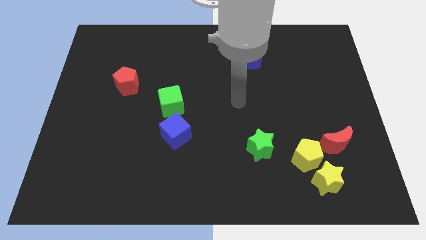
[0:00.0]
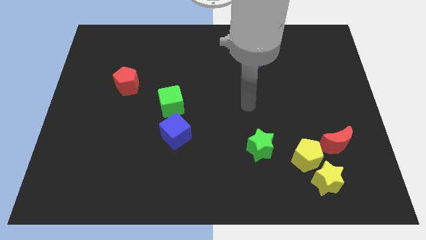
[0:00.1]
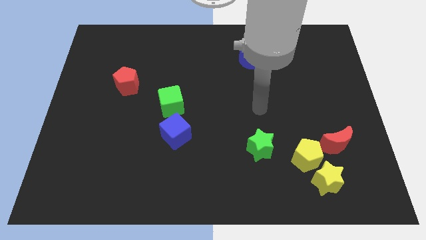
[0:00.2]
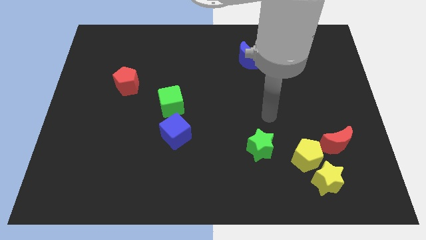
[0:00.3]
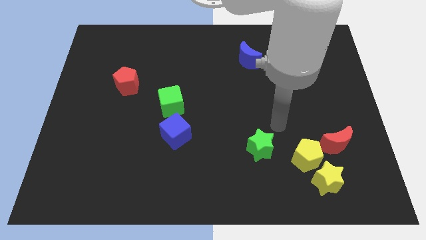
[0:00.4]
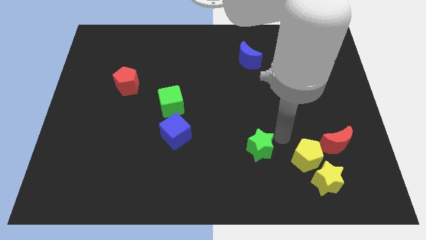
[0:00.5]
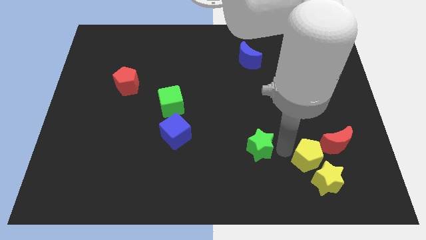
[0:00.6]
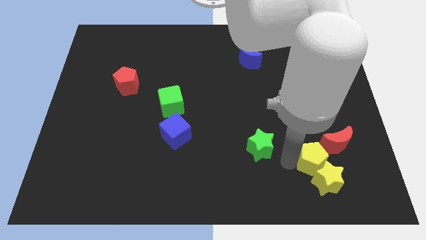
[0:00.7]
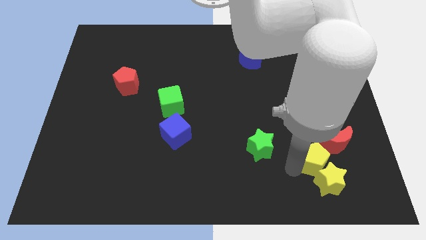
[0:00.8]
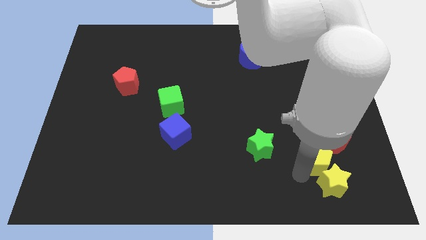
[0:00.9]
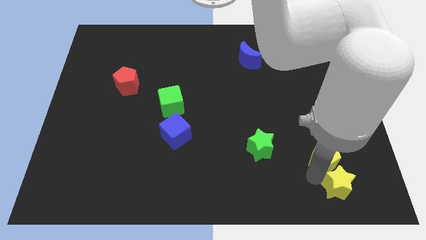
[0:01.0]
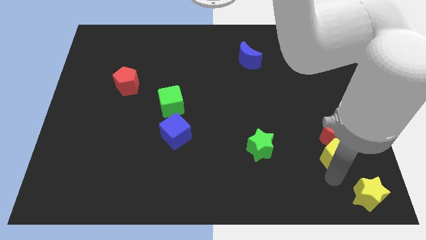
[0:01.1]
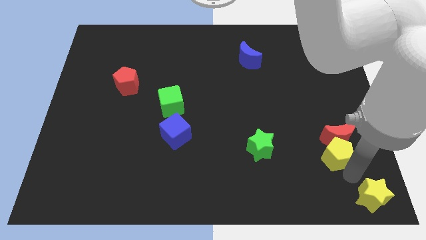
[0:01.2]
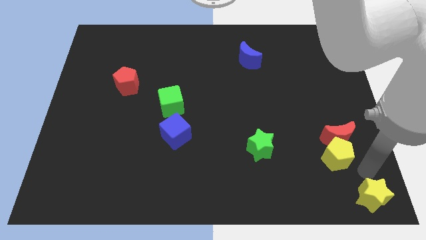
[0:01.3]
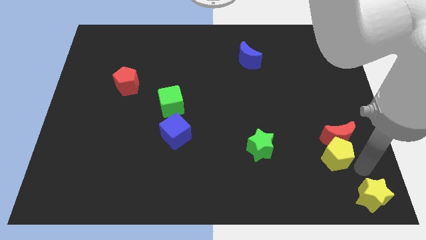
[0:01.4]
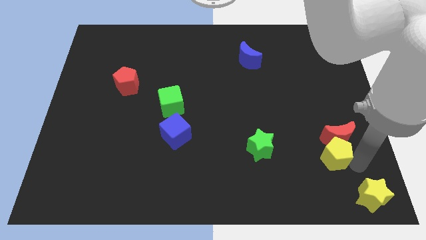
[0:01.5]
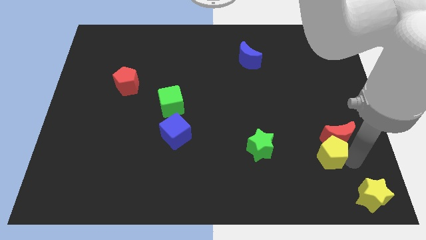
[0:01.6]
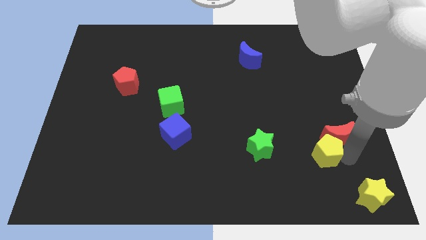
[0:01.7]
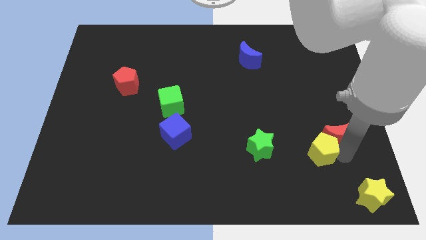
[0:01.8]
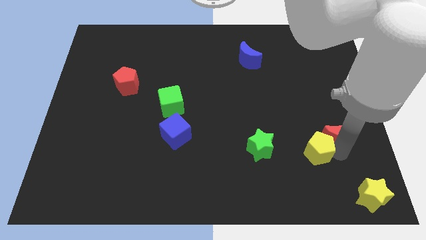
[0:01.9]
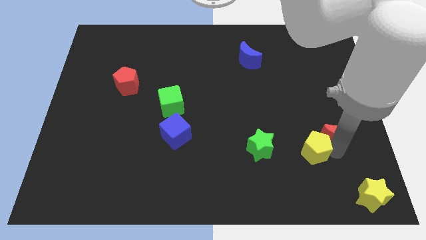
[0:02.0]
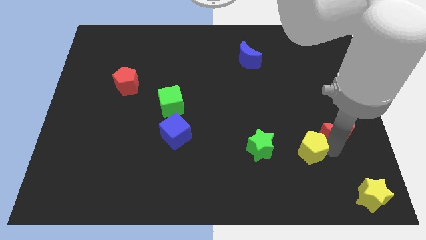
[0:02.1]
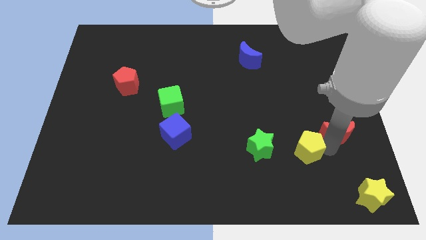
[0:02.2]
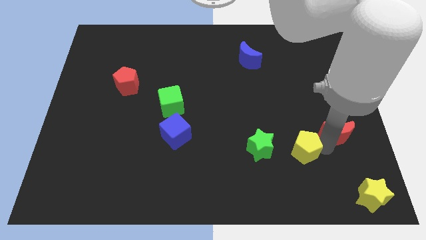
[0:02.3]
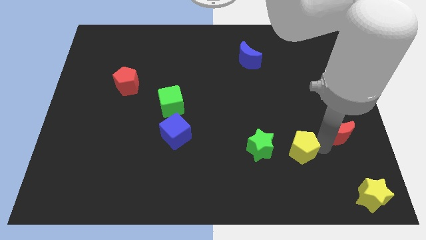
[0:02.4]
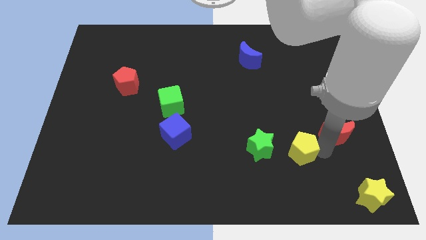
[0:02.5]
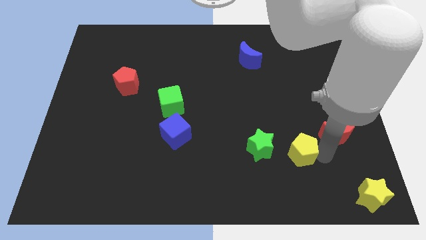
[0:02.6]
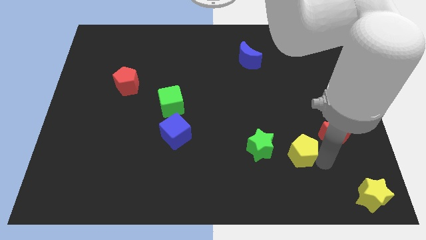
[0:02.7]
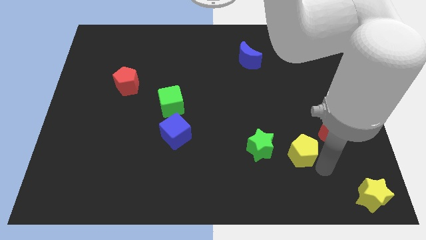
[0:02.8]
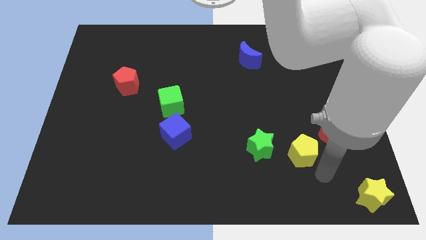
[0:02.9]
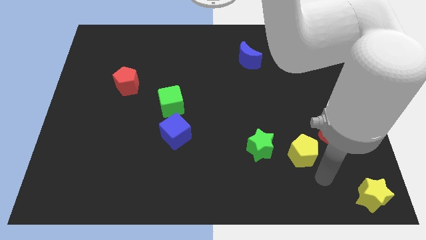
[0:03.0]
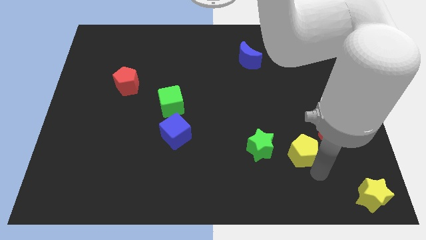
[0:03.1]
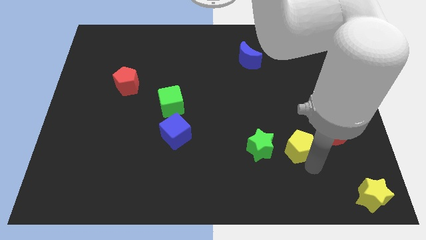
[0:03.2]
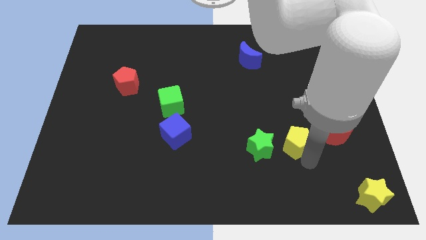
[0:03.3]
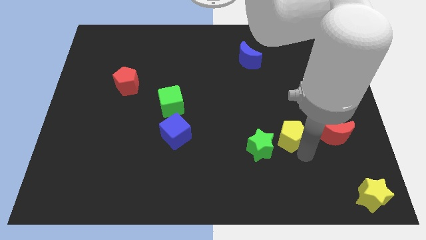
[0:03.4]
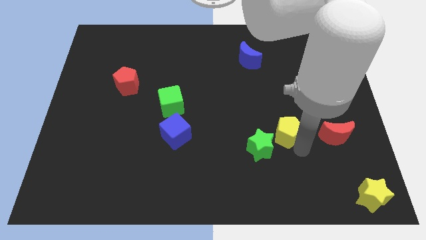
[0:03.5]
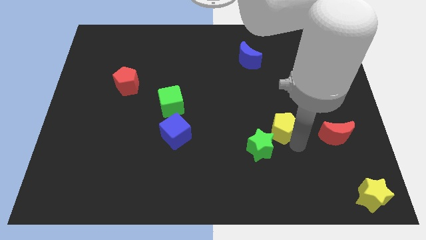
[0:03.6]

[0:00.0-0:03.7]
move the yellow pentagon away from the group of blocks

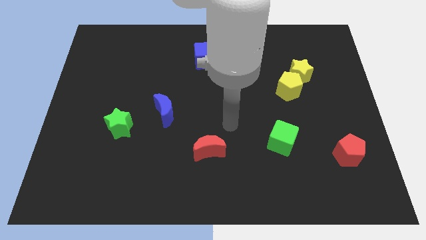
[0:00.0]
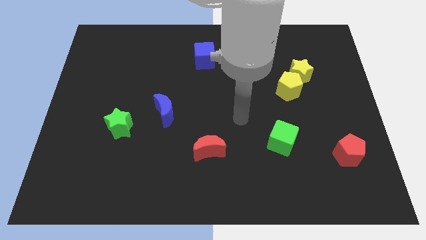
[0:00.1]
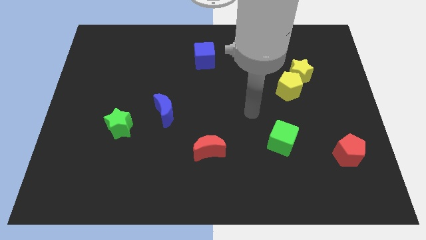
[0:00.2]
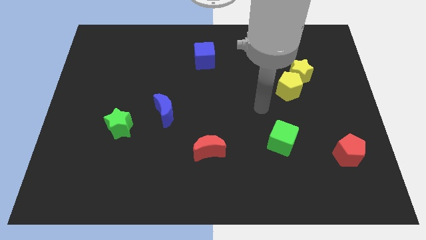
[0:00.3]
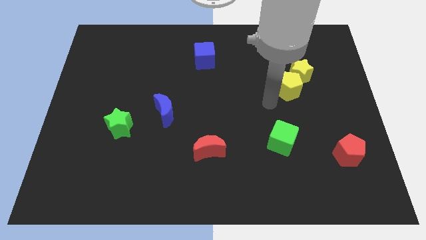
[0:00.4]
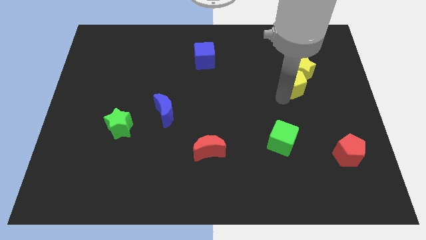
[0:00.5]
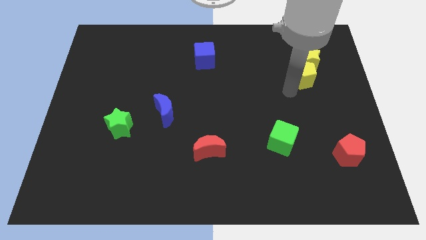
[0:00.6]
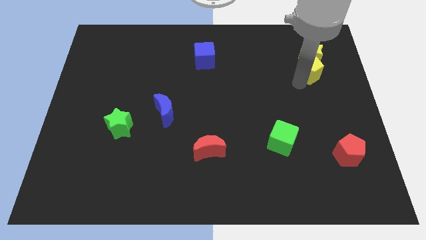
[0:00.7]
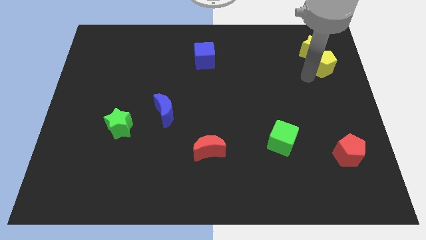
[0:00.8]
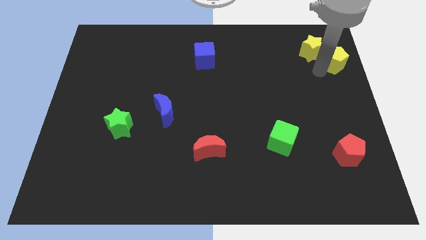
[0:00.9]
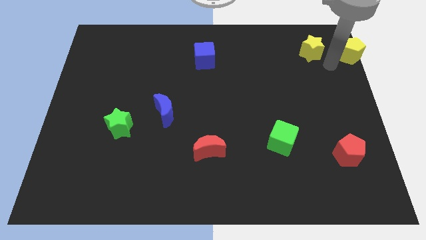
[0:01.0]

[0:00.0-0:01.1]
pull the yellow star apart from the yellow pentagon

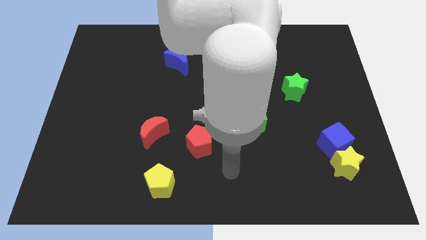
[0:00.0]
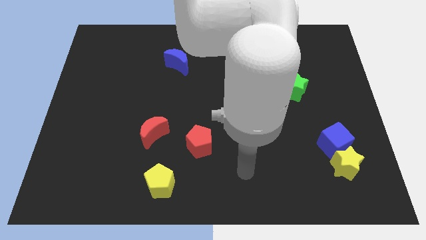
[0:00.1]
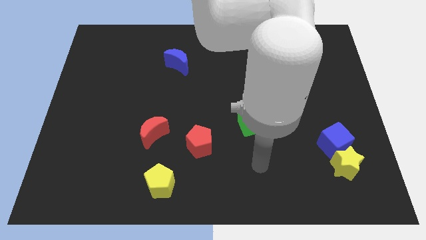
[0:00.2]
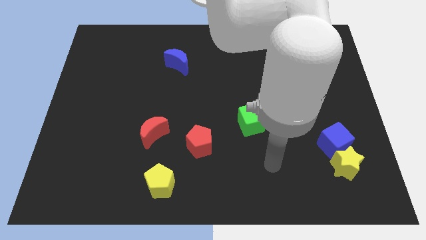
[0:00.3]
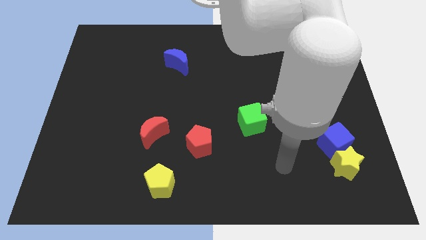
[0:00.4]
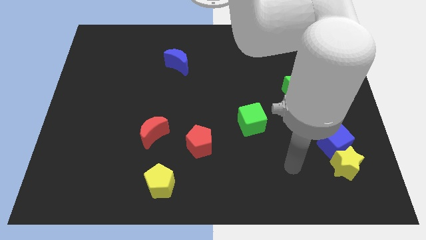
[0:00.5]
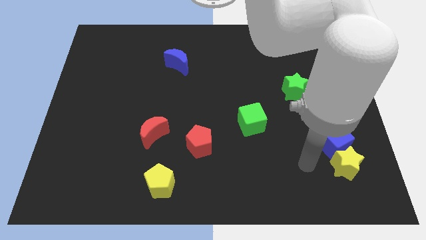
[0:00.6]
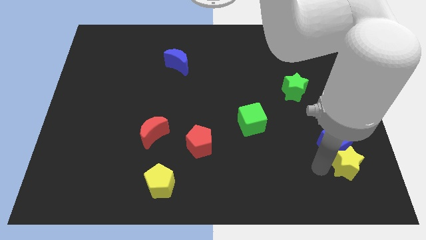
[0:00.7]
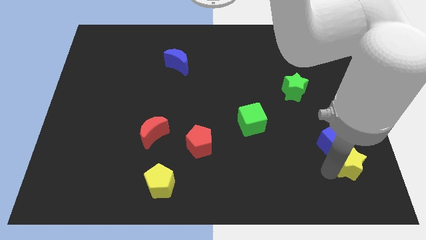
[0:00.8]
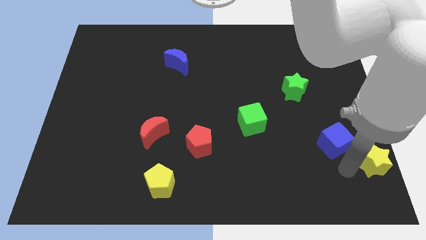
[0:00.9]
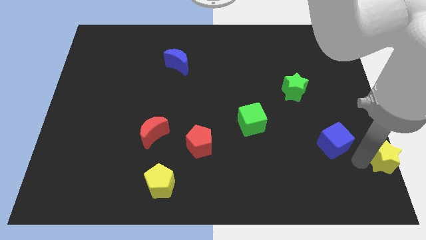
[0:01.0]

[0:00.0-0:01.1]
pull the blue cube apart from the yellow star

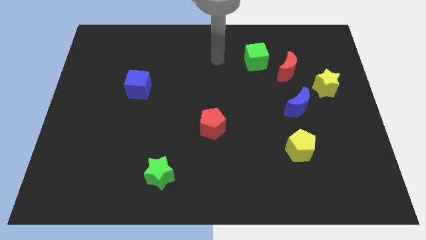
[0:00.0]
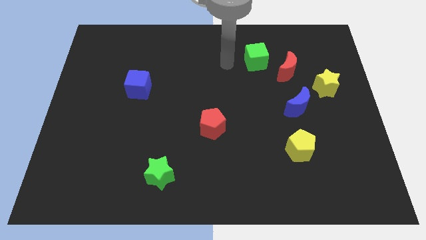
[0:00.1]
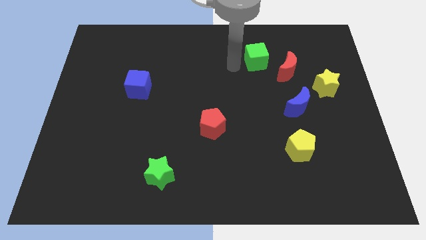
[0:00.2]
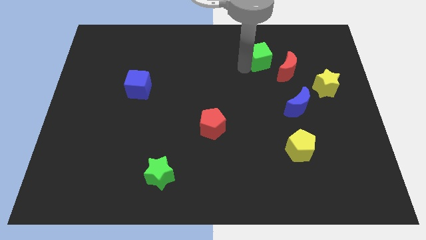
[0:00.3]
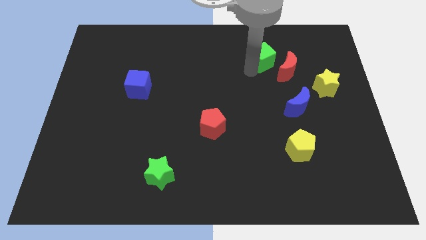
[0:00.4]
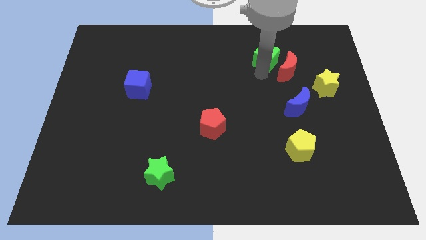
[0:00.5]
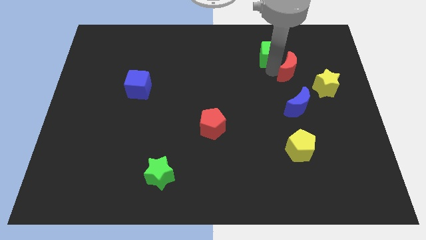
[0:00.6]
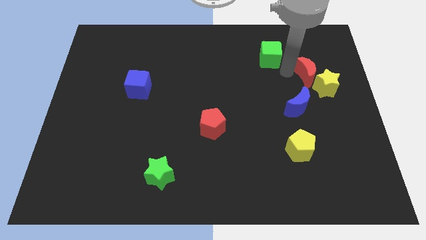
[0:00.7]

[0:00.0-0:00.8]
move the green cube away from the red moon

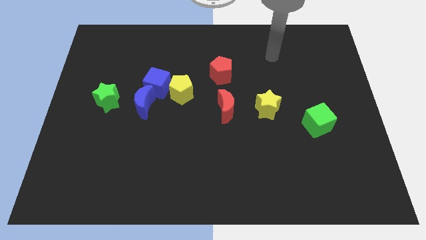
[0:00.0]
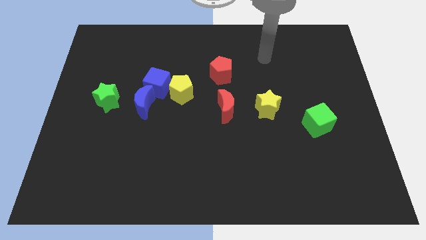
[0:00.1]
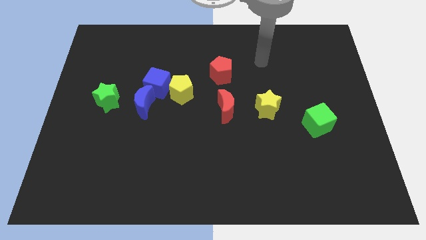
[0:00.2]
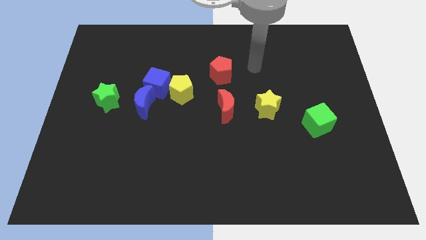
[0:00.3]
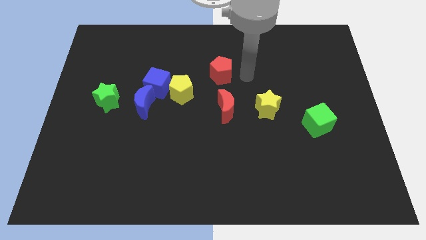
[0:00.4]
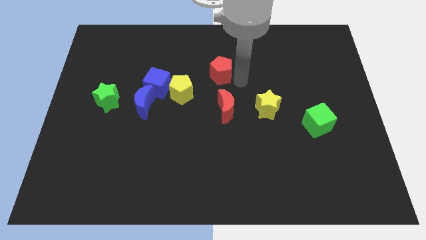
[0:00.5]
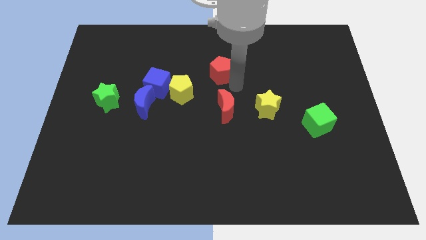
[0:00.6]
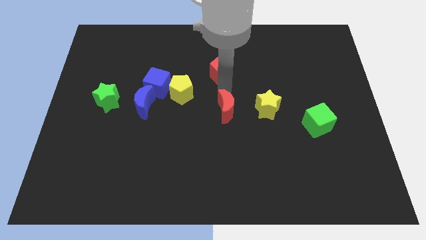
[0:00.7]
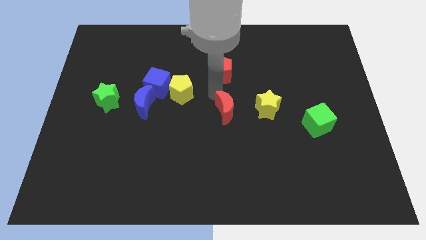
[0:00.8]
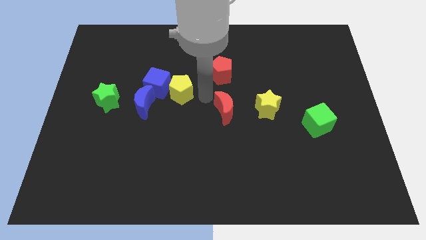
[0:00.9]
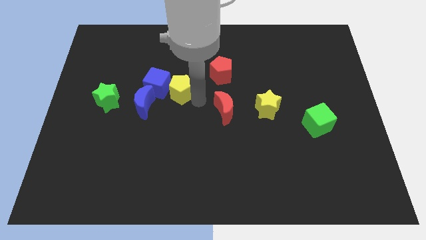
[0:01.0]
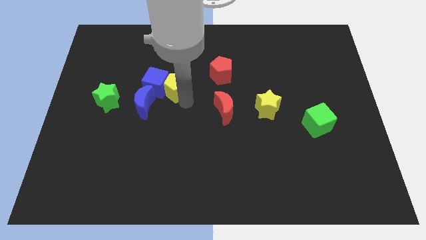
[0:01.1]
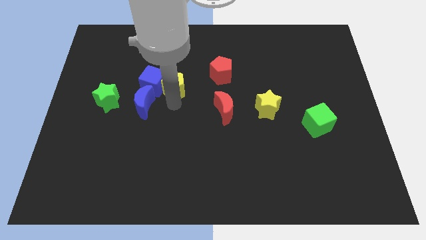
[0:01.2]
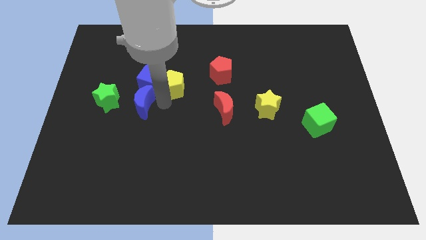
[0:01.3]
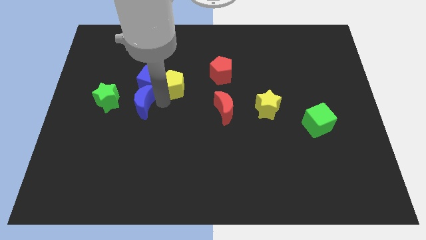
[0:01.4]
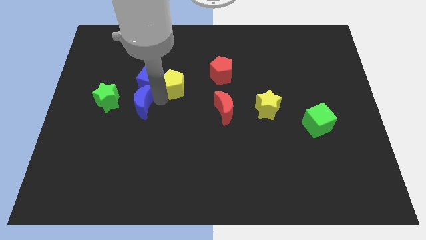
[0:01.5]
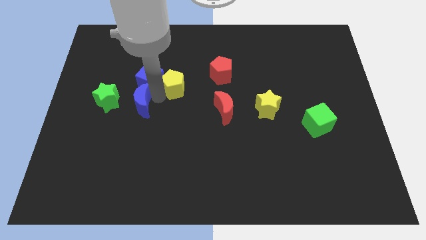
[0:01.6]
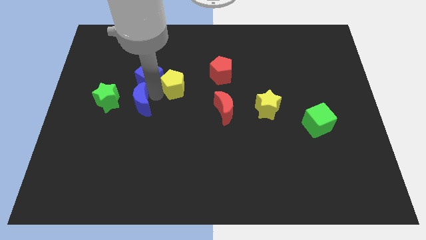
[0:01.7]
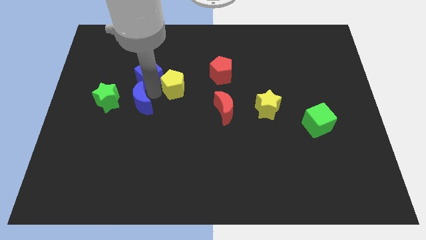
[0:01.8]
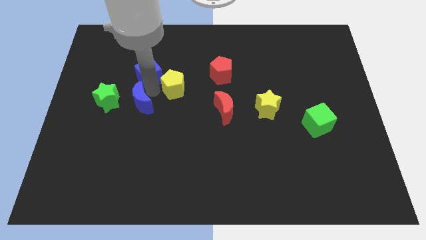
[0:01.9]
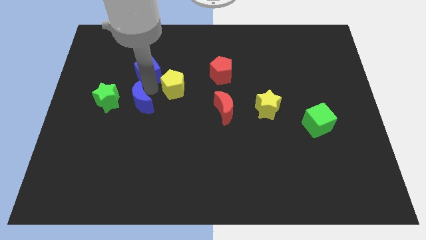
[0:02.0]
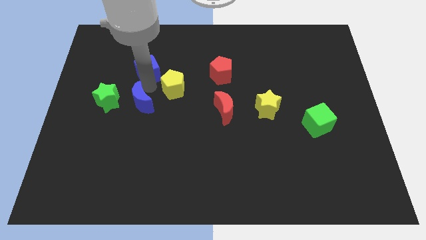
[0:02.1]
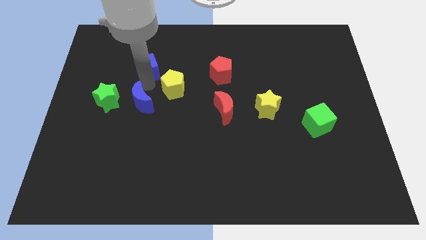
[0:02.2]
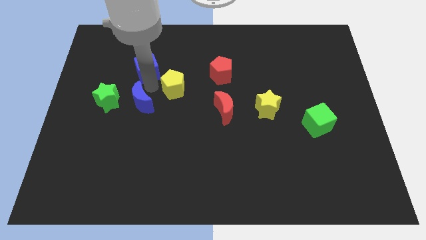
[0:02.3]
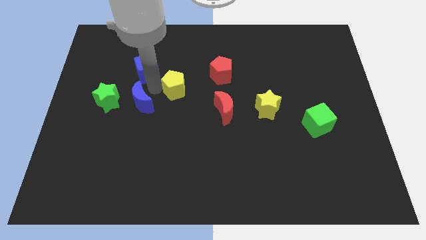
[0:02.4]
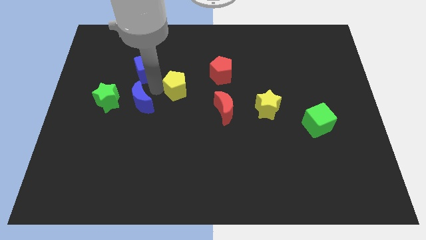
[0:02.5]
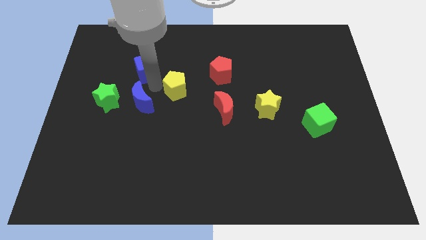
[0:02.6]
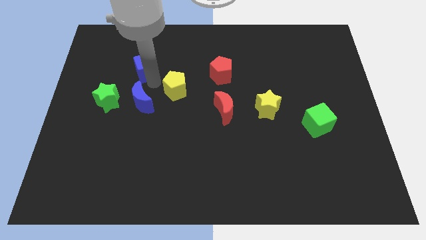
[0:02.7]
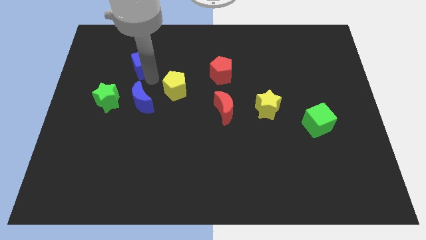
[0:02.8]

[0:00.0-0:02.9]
pull the blue cube apart from the yellow pentagon and blue moon
